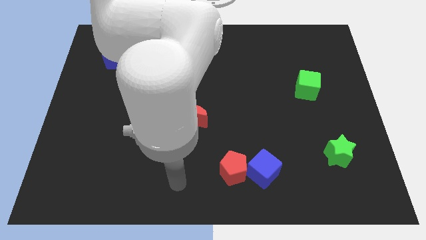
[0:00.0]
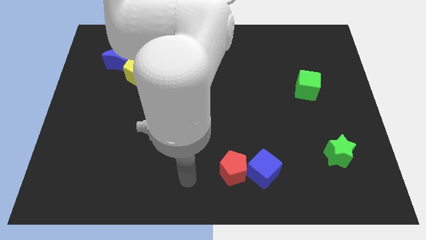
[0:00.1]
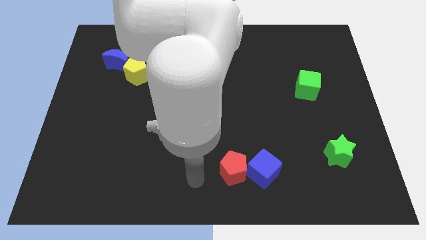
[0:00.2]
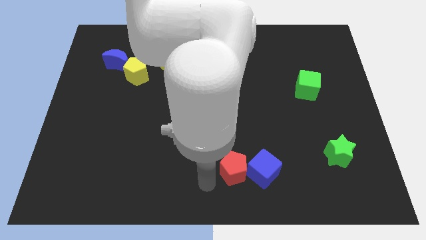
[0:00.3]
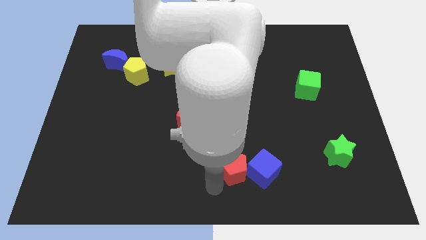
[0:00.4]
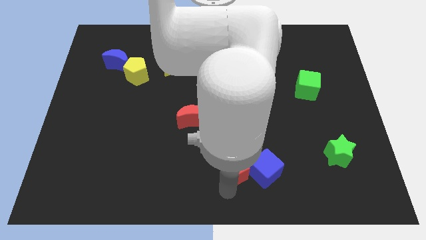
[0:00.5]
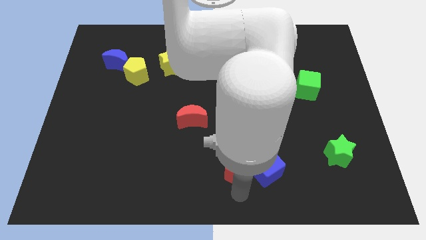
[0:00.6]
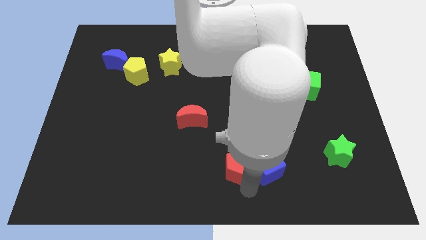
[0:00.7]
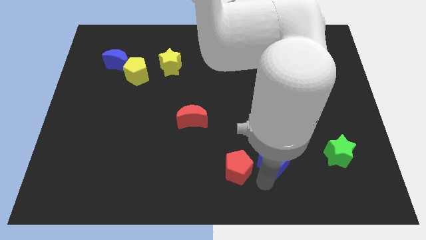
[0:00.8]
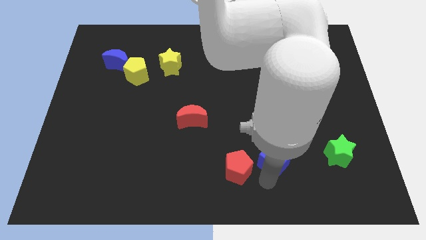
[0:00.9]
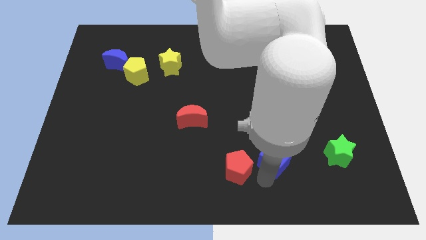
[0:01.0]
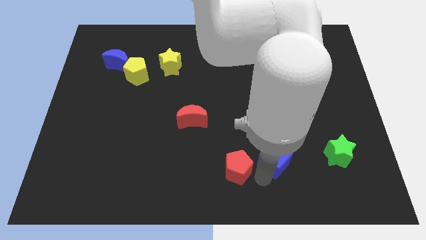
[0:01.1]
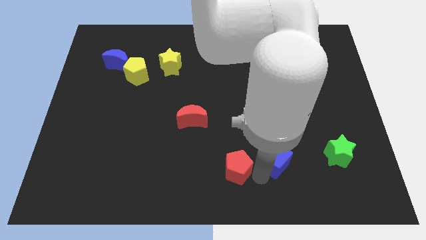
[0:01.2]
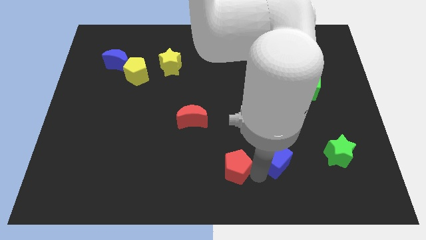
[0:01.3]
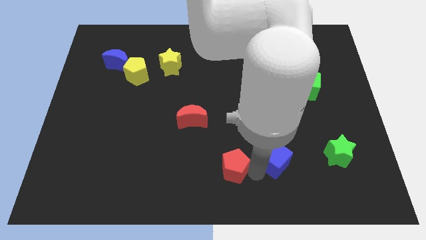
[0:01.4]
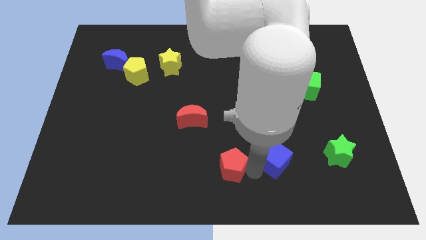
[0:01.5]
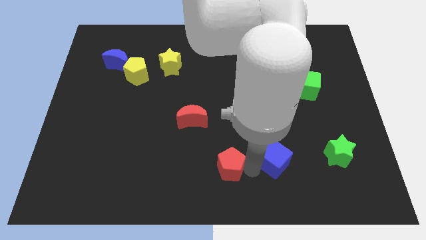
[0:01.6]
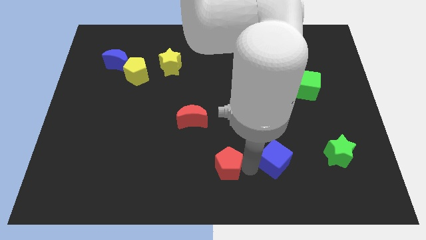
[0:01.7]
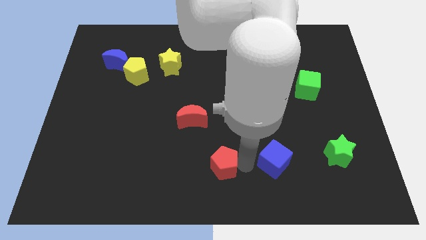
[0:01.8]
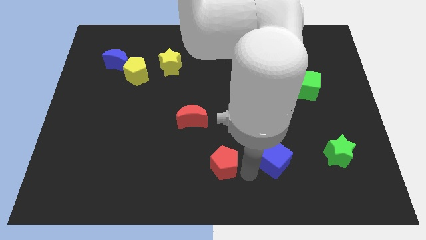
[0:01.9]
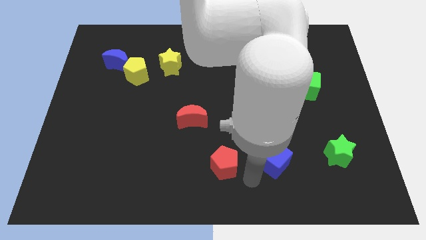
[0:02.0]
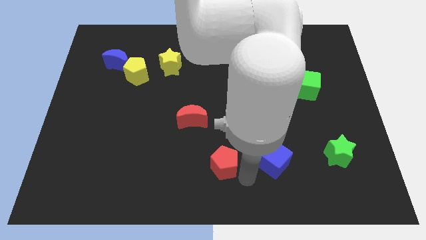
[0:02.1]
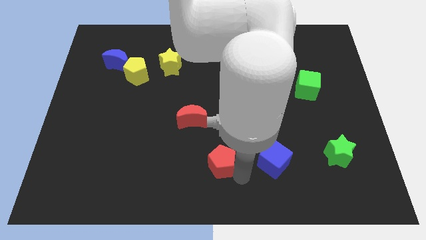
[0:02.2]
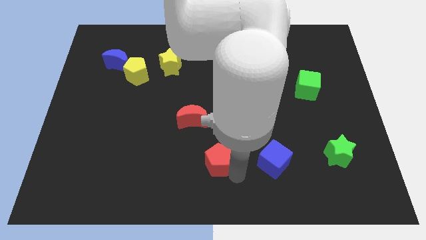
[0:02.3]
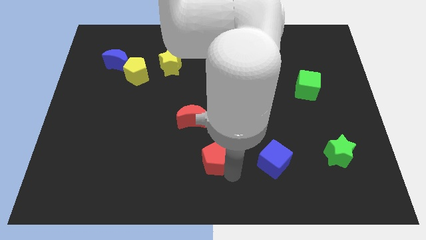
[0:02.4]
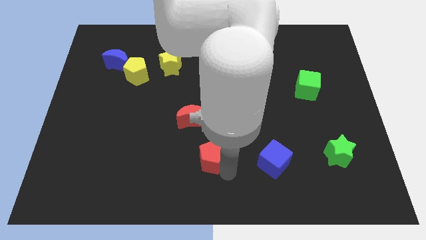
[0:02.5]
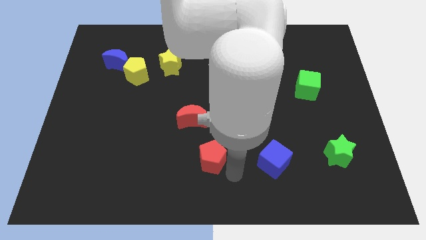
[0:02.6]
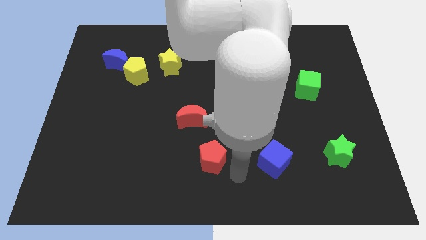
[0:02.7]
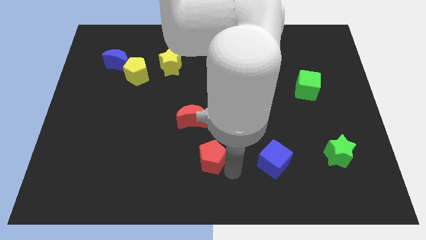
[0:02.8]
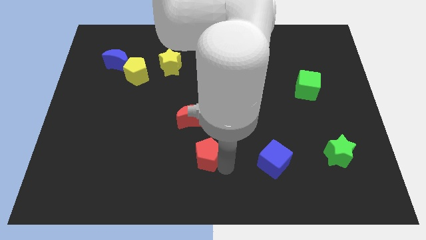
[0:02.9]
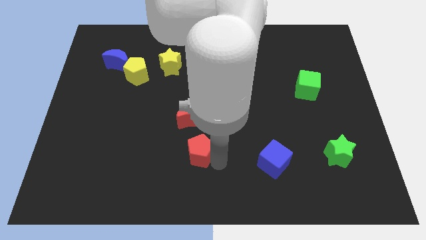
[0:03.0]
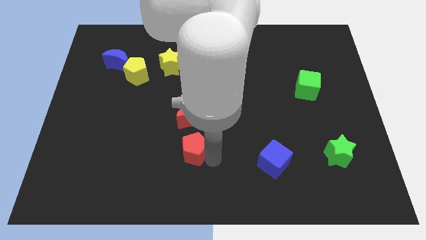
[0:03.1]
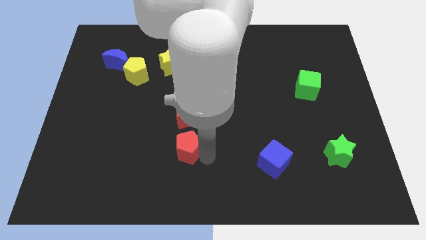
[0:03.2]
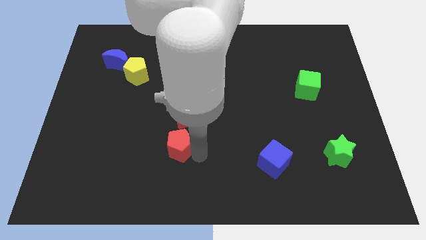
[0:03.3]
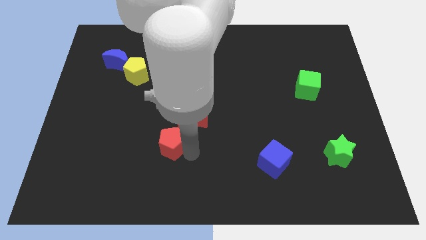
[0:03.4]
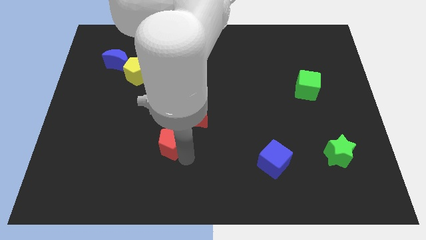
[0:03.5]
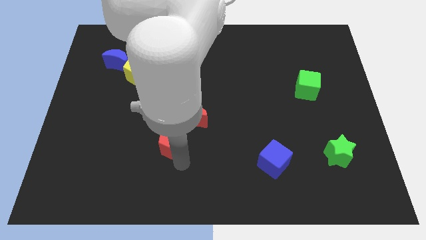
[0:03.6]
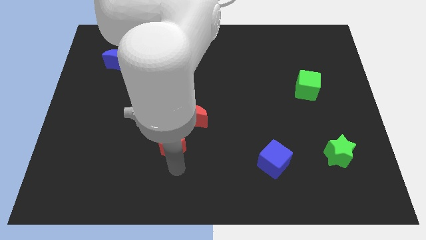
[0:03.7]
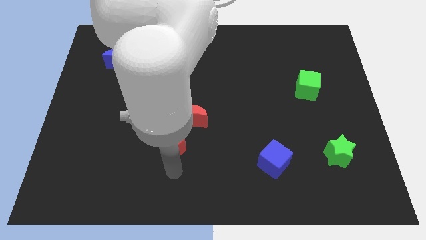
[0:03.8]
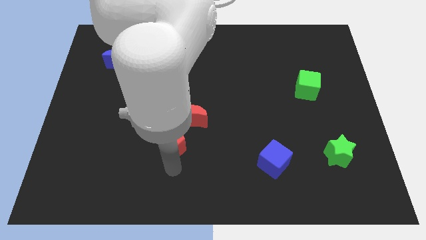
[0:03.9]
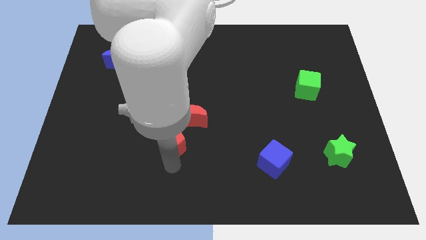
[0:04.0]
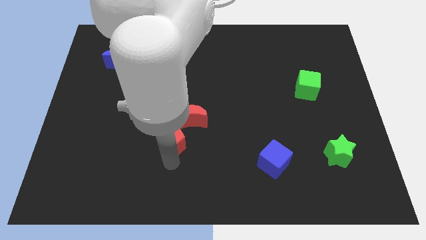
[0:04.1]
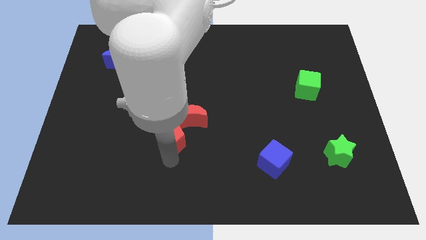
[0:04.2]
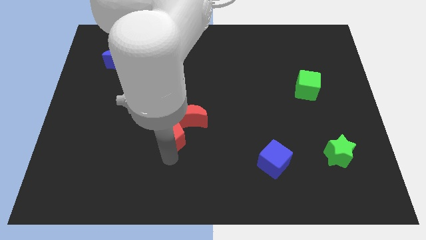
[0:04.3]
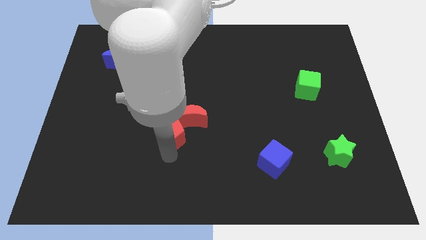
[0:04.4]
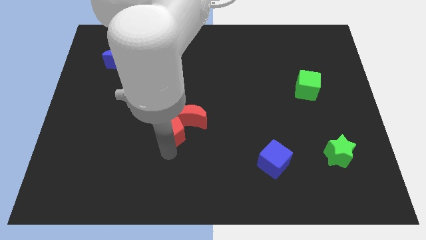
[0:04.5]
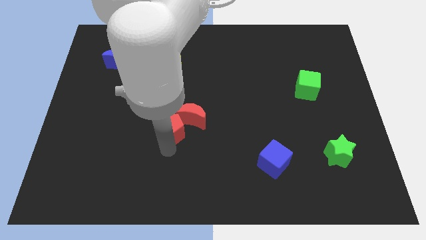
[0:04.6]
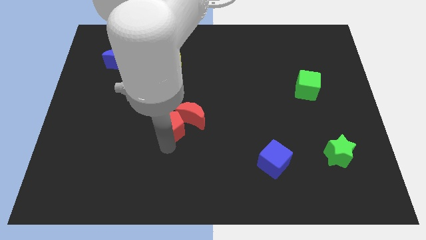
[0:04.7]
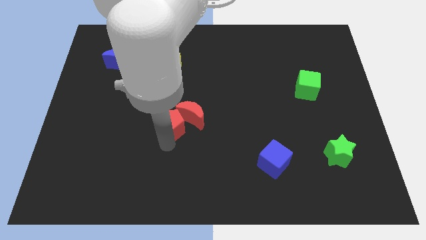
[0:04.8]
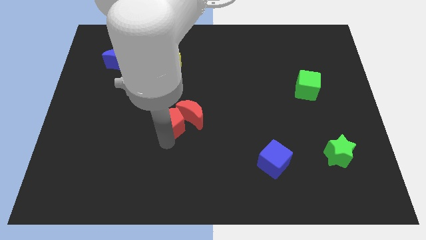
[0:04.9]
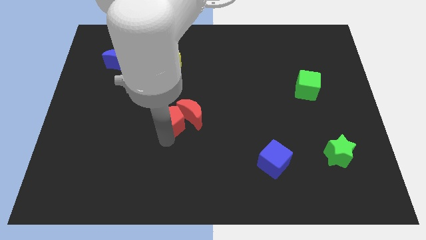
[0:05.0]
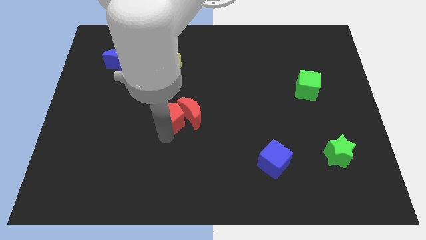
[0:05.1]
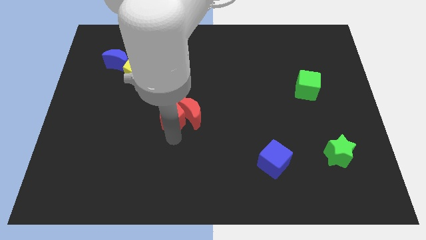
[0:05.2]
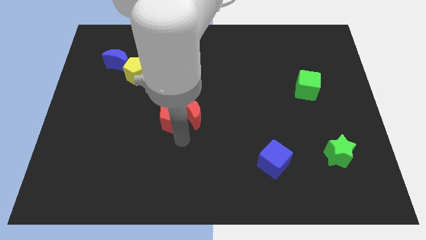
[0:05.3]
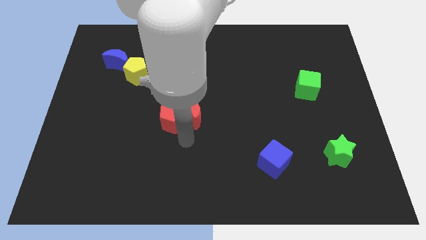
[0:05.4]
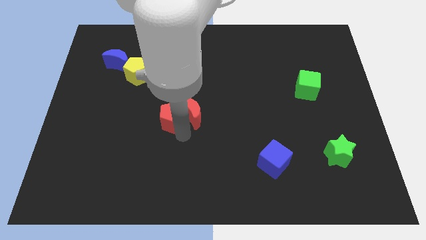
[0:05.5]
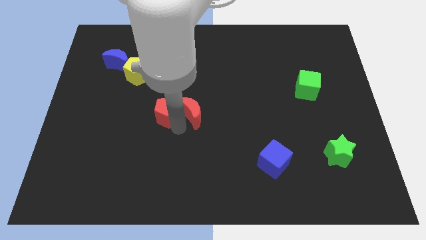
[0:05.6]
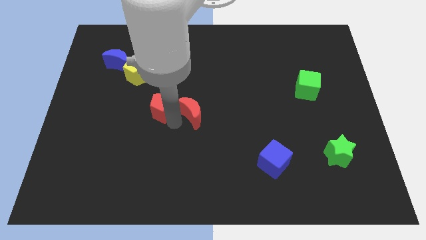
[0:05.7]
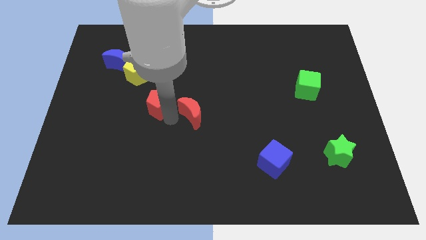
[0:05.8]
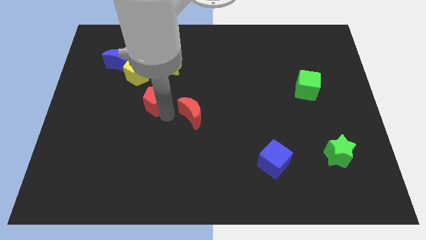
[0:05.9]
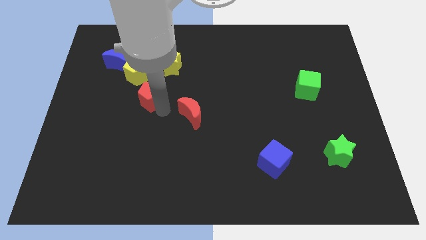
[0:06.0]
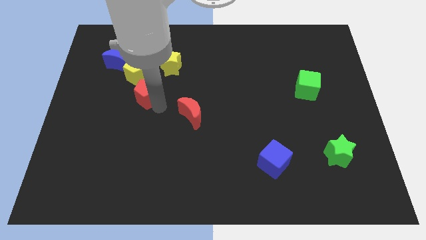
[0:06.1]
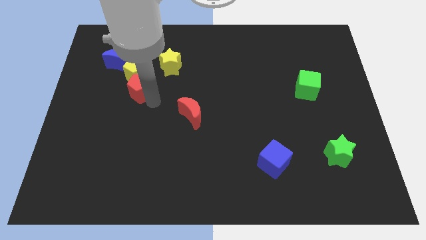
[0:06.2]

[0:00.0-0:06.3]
push the red pentagon close to the yellow pentagon

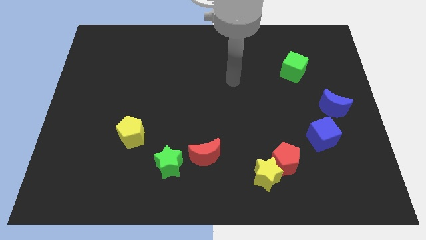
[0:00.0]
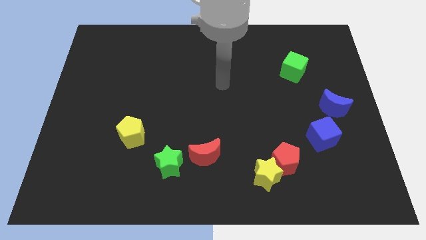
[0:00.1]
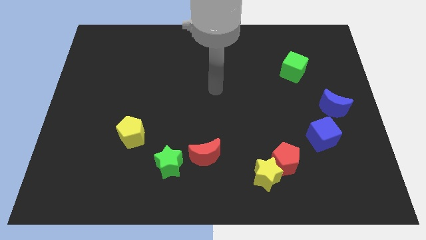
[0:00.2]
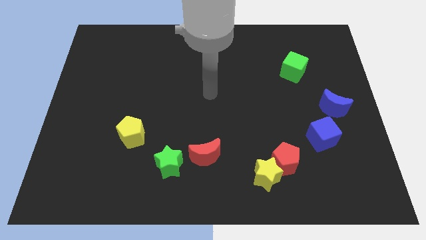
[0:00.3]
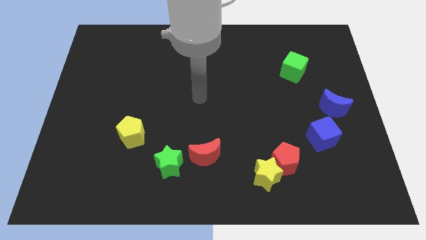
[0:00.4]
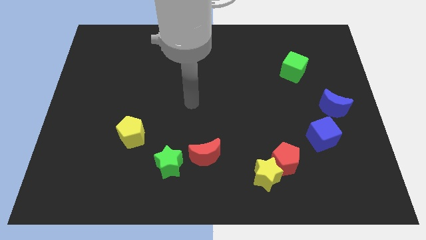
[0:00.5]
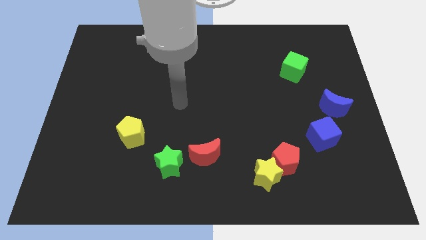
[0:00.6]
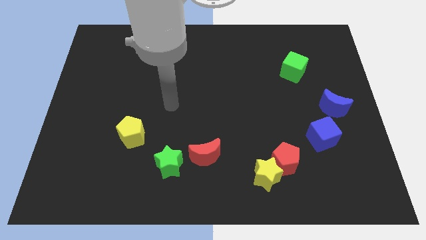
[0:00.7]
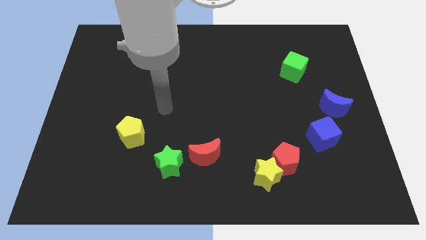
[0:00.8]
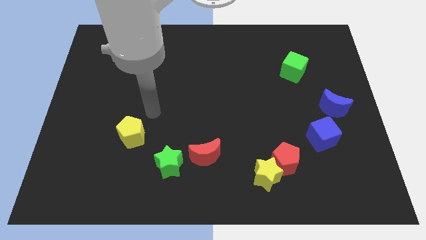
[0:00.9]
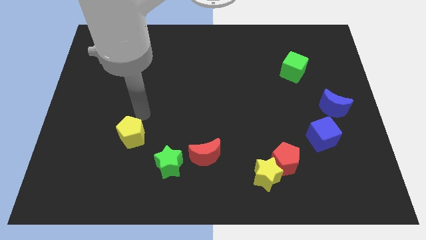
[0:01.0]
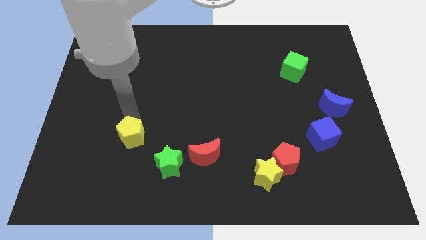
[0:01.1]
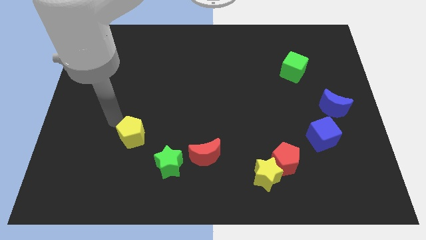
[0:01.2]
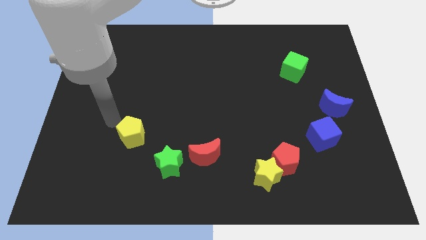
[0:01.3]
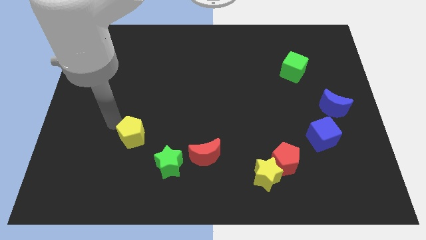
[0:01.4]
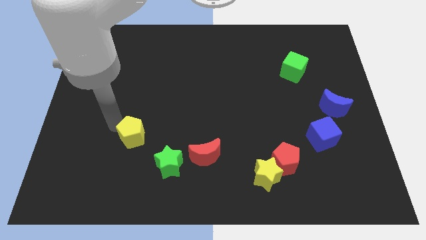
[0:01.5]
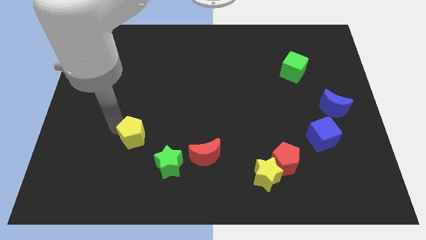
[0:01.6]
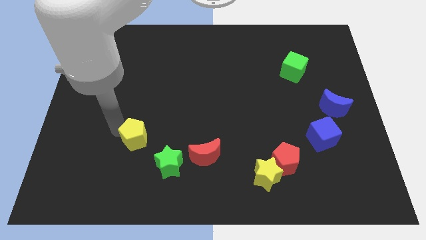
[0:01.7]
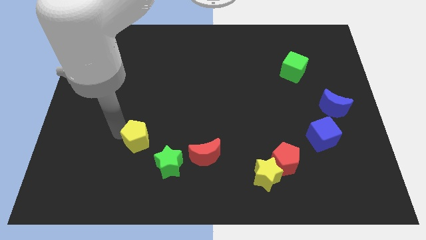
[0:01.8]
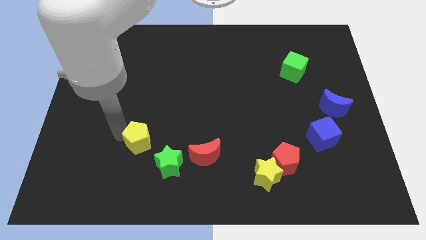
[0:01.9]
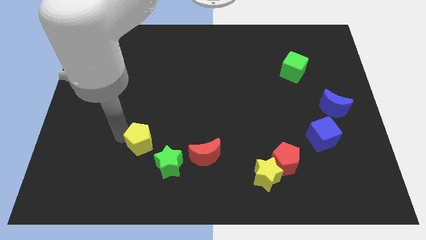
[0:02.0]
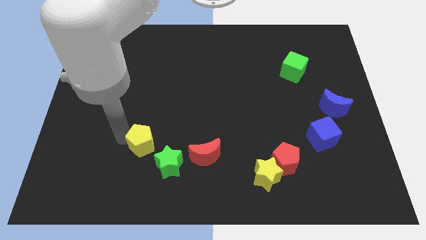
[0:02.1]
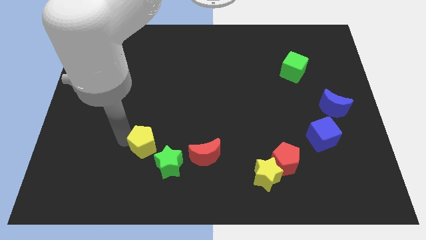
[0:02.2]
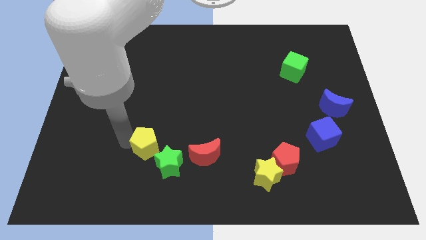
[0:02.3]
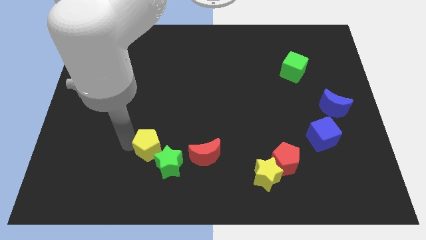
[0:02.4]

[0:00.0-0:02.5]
move the yellow pentagon next to the green star
